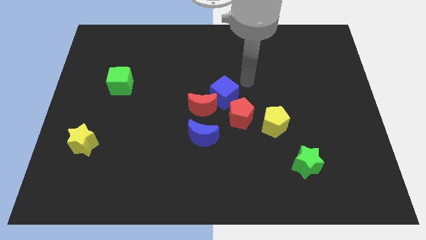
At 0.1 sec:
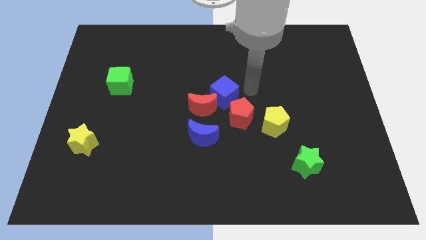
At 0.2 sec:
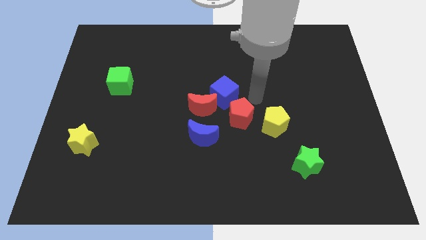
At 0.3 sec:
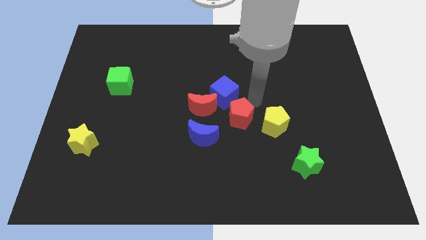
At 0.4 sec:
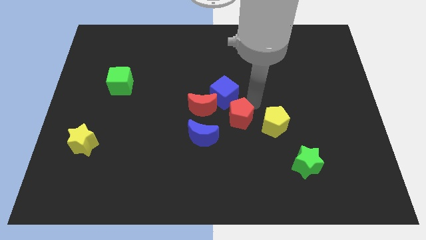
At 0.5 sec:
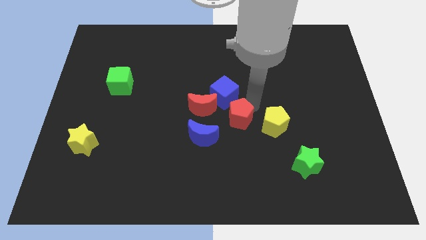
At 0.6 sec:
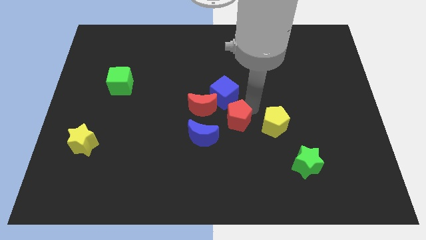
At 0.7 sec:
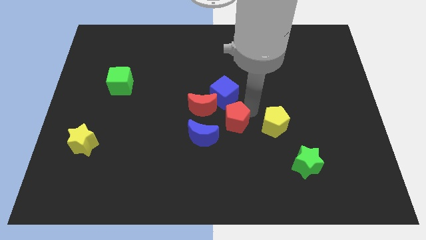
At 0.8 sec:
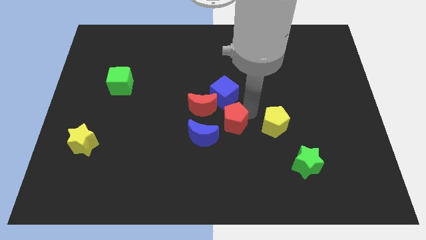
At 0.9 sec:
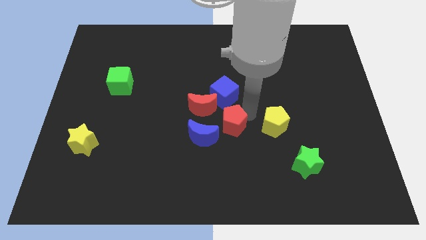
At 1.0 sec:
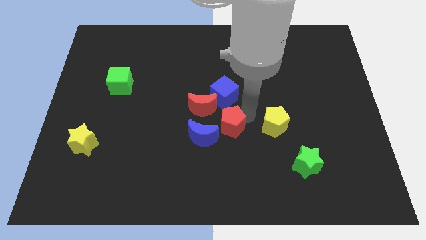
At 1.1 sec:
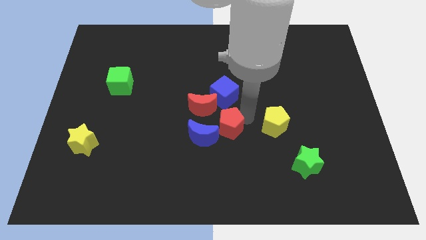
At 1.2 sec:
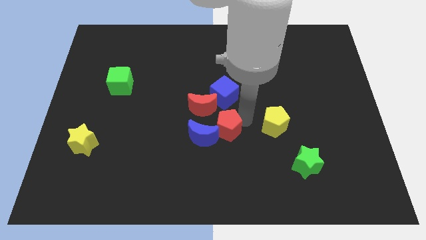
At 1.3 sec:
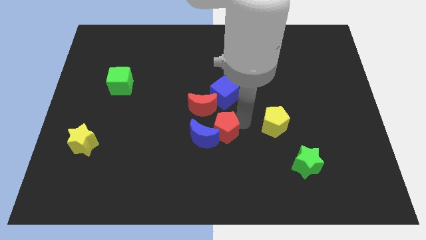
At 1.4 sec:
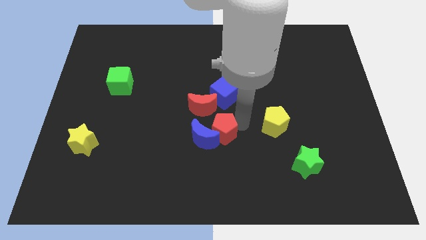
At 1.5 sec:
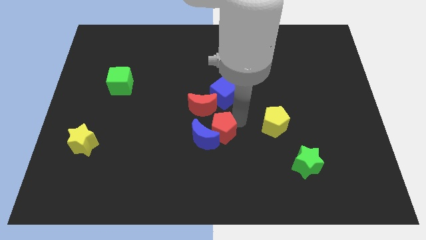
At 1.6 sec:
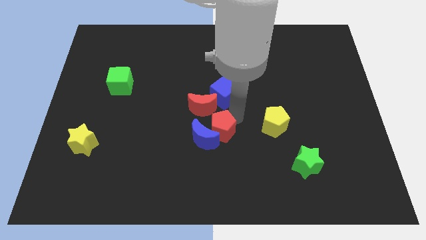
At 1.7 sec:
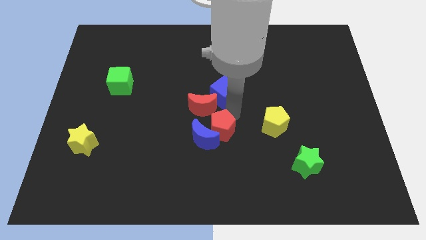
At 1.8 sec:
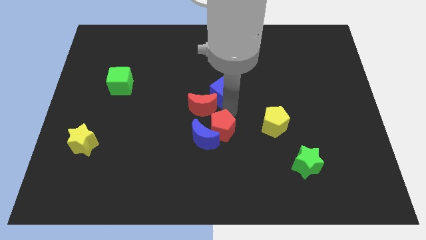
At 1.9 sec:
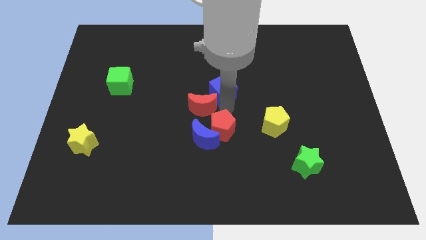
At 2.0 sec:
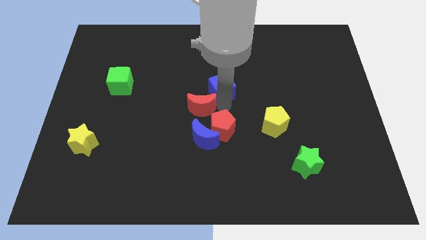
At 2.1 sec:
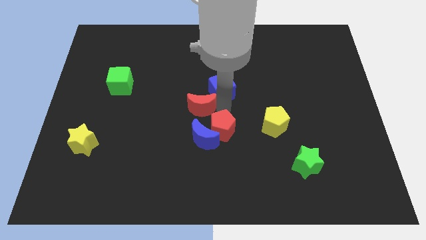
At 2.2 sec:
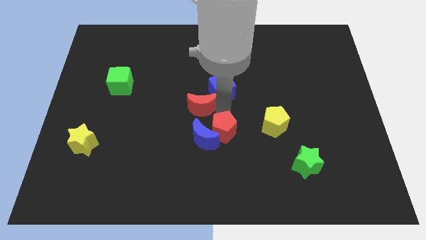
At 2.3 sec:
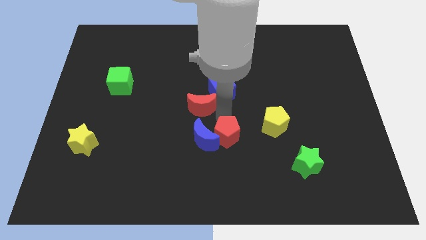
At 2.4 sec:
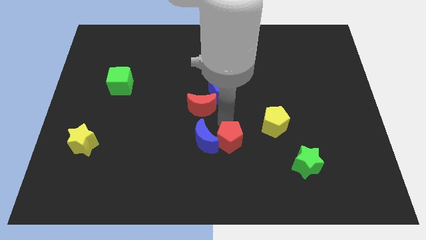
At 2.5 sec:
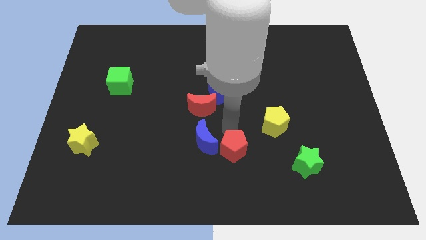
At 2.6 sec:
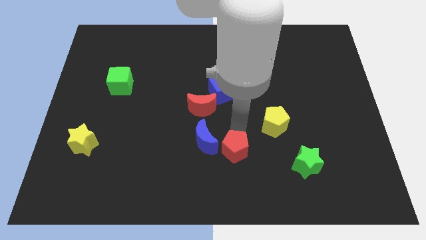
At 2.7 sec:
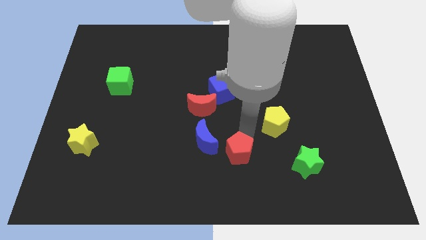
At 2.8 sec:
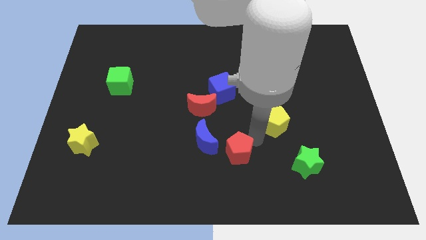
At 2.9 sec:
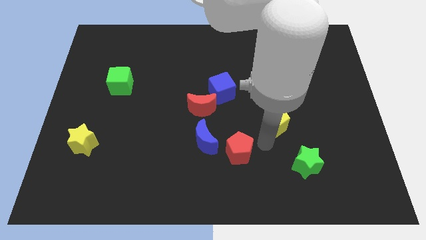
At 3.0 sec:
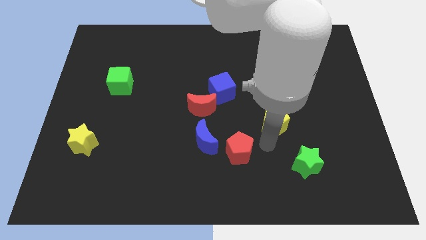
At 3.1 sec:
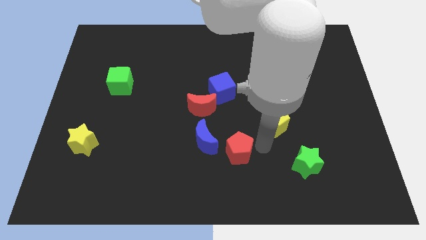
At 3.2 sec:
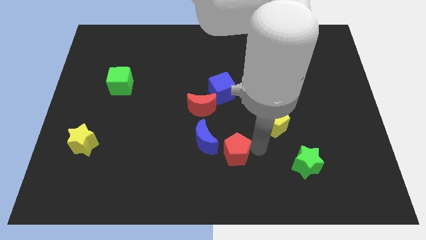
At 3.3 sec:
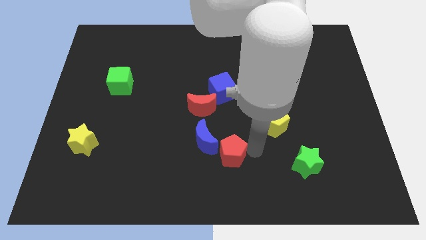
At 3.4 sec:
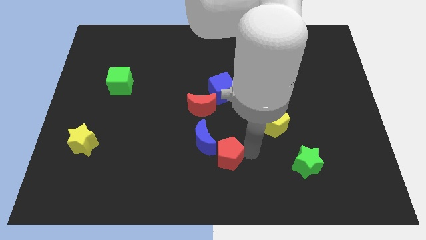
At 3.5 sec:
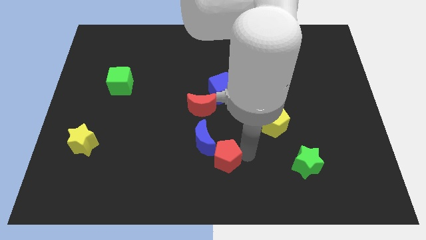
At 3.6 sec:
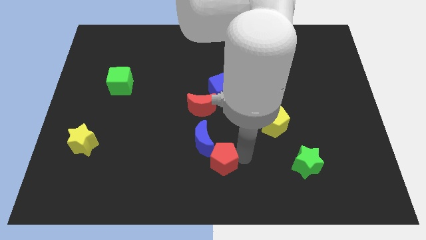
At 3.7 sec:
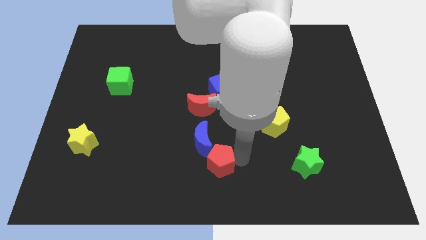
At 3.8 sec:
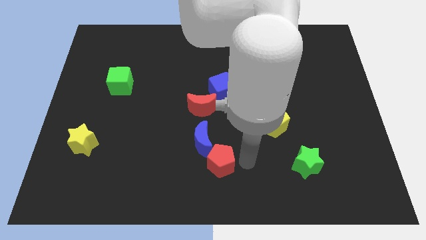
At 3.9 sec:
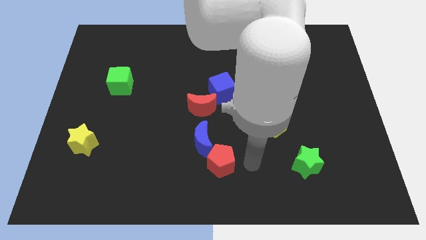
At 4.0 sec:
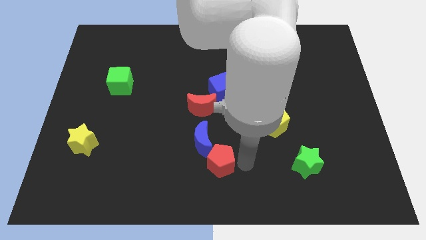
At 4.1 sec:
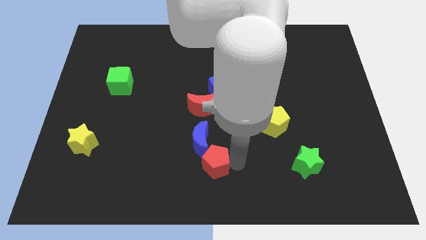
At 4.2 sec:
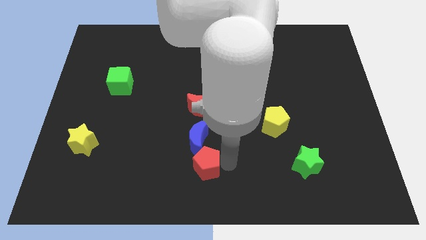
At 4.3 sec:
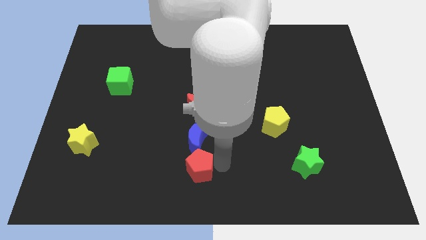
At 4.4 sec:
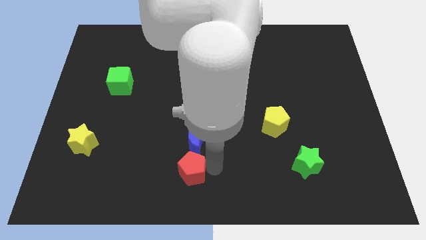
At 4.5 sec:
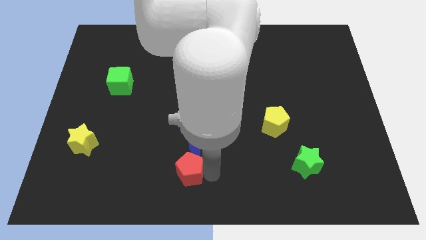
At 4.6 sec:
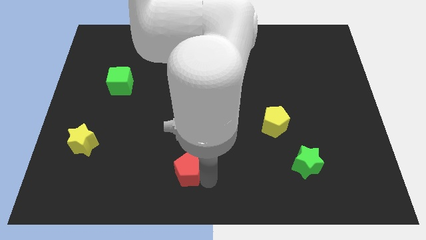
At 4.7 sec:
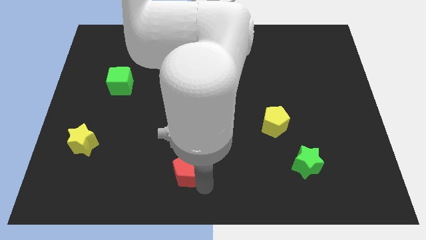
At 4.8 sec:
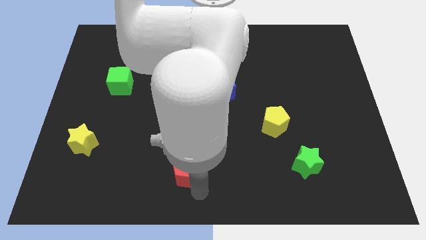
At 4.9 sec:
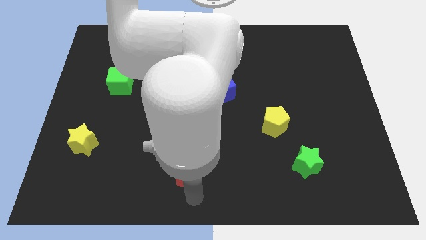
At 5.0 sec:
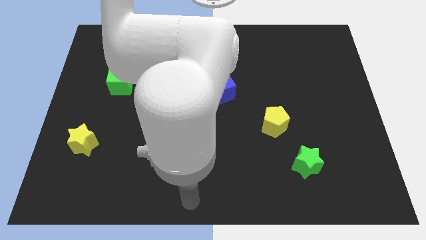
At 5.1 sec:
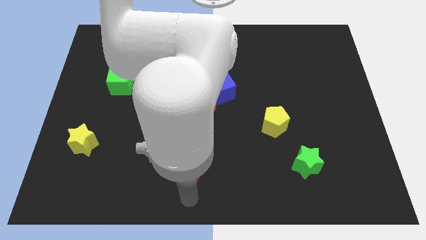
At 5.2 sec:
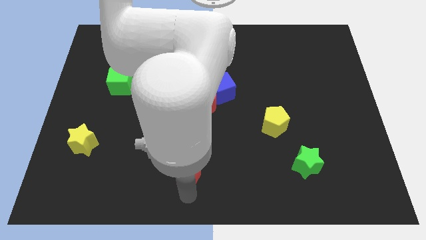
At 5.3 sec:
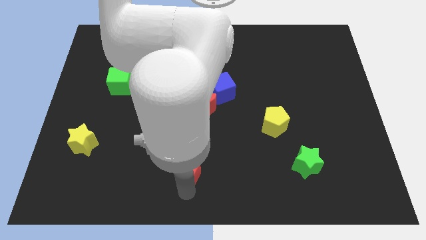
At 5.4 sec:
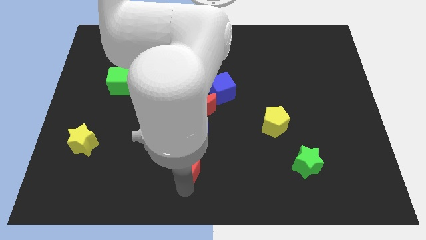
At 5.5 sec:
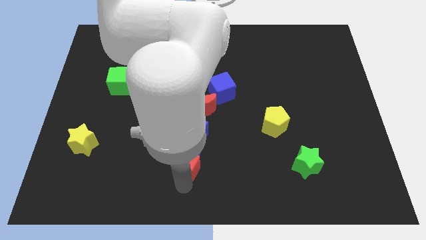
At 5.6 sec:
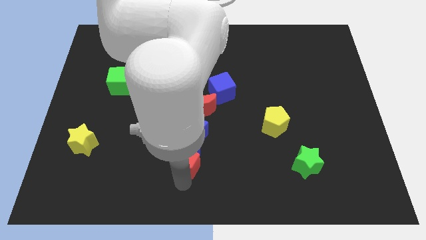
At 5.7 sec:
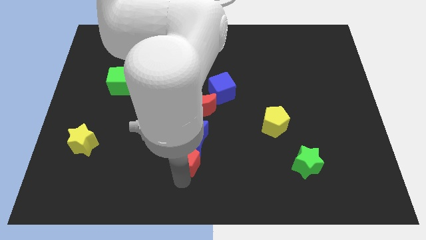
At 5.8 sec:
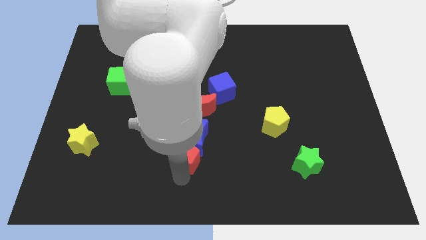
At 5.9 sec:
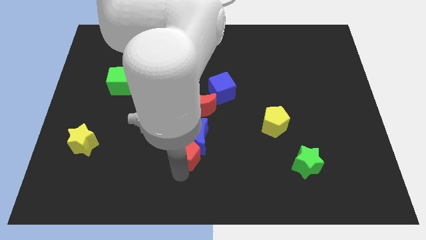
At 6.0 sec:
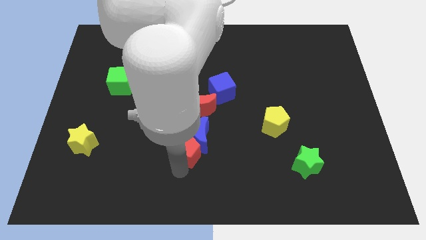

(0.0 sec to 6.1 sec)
push the red pentagon to the left a little bit

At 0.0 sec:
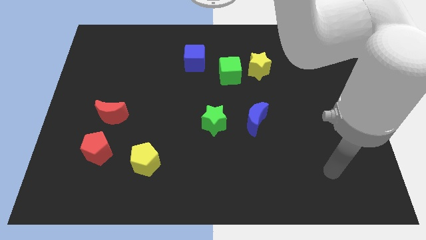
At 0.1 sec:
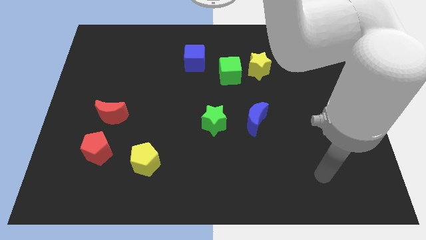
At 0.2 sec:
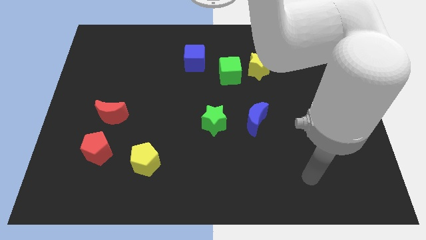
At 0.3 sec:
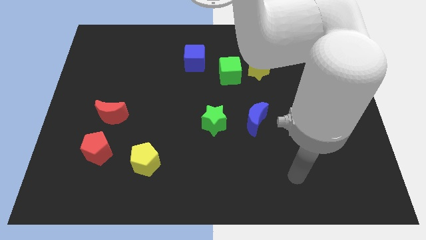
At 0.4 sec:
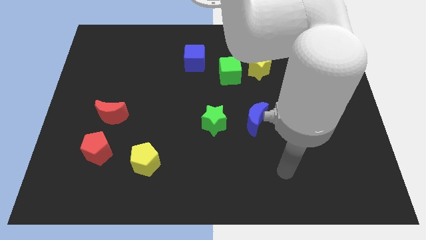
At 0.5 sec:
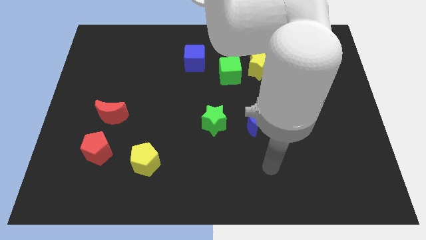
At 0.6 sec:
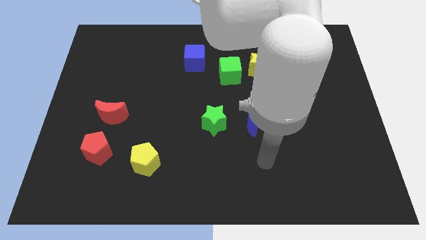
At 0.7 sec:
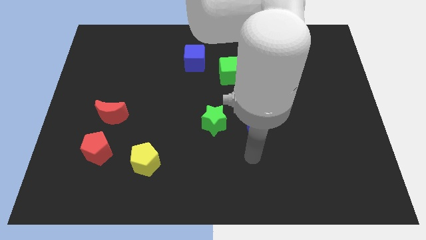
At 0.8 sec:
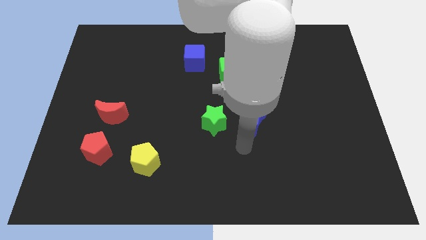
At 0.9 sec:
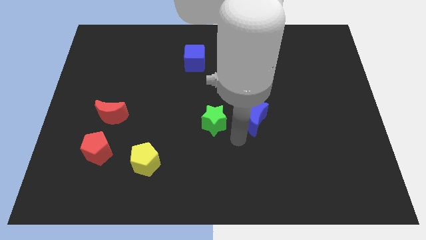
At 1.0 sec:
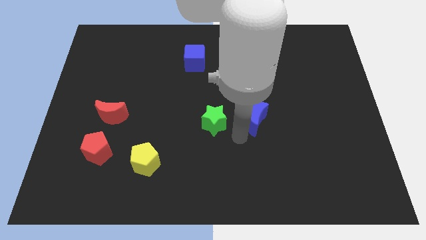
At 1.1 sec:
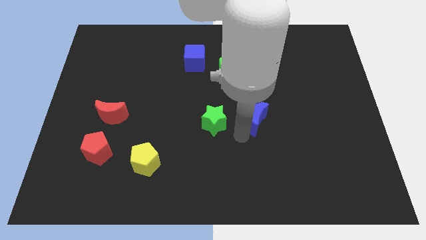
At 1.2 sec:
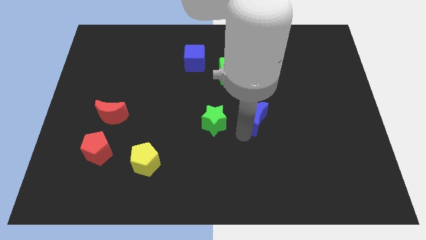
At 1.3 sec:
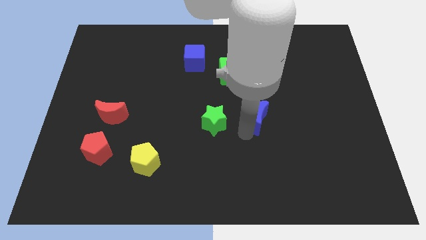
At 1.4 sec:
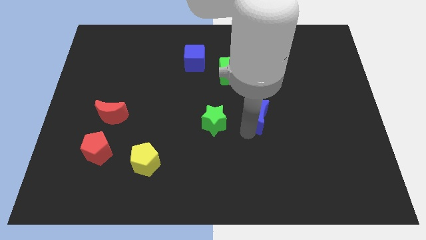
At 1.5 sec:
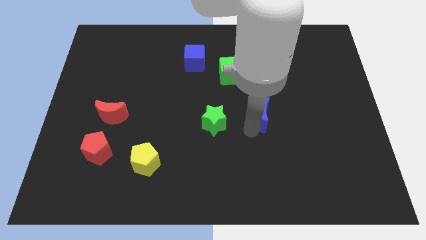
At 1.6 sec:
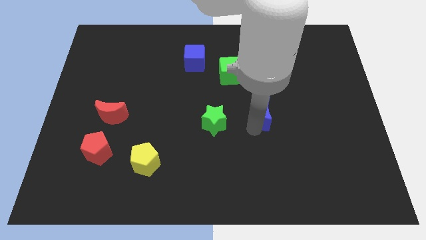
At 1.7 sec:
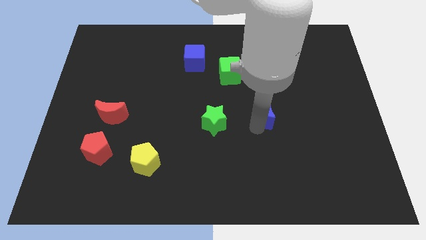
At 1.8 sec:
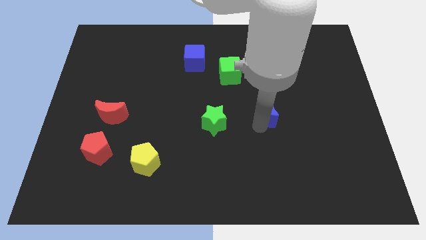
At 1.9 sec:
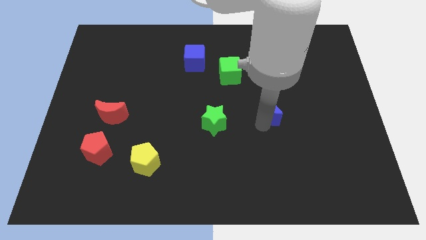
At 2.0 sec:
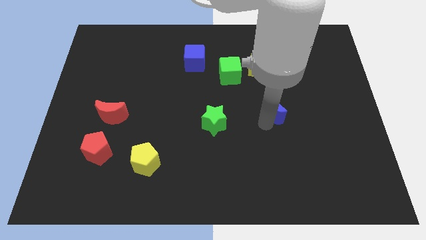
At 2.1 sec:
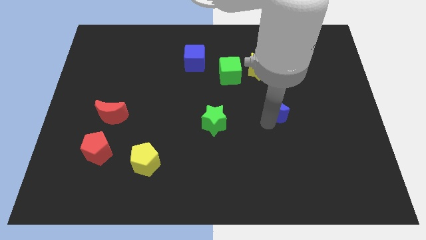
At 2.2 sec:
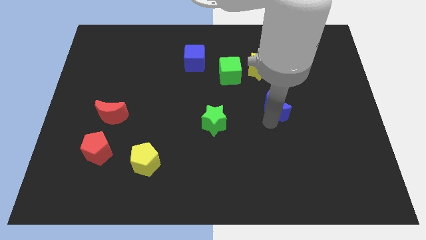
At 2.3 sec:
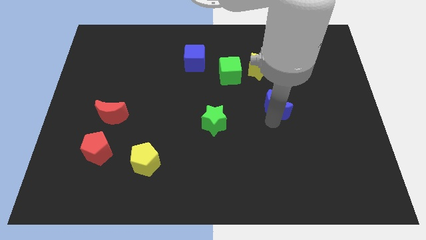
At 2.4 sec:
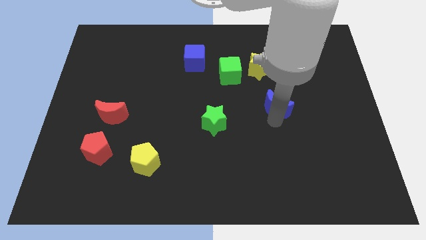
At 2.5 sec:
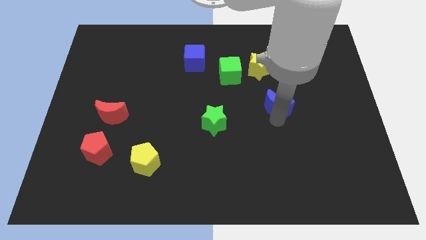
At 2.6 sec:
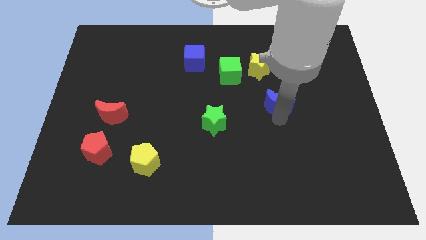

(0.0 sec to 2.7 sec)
move the blue moon a bit diagonally upwards and right
